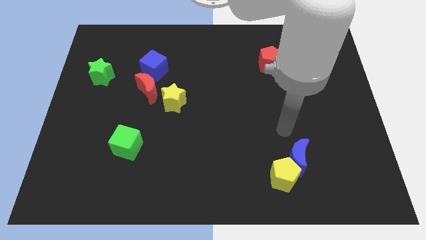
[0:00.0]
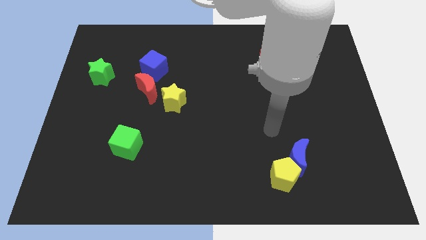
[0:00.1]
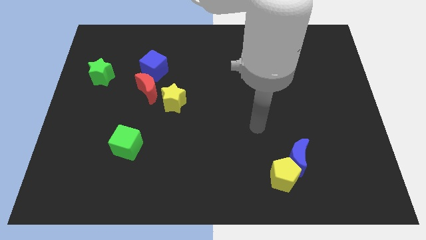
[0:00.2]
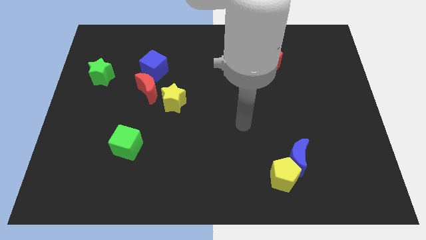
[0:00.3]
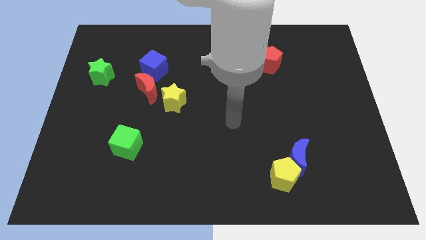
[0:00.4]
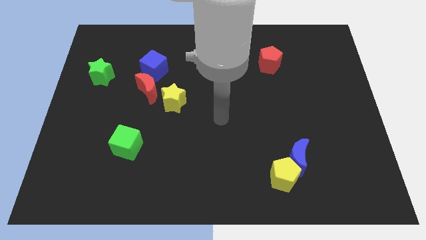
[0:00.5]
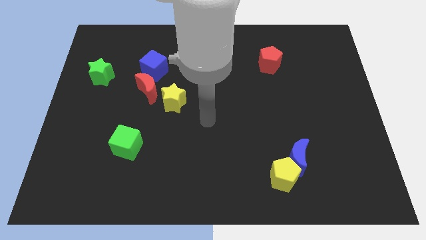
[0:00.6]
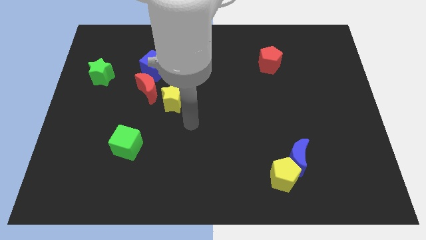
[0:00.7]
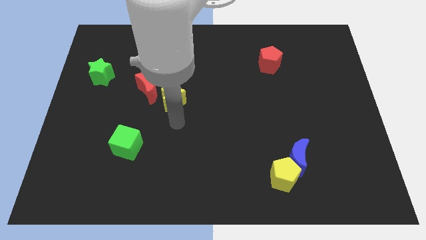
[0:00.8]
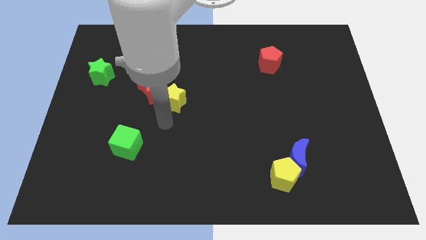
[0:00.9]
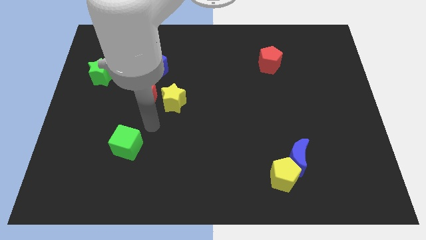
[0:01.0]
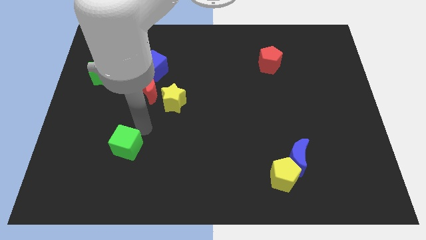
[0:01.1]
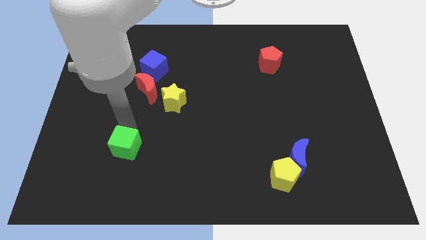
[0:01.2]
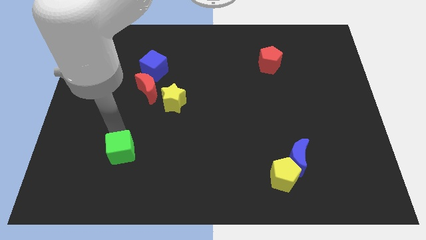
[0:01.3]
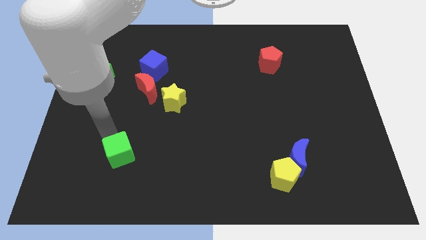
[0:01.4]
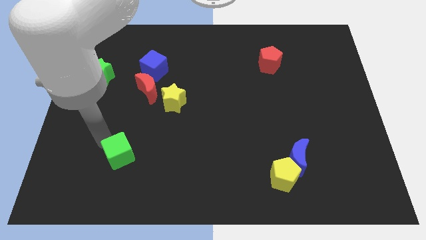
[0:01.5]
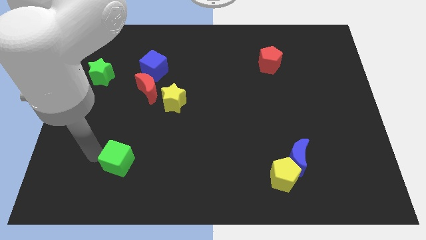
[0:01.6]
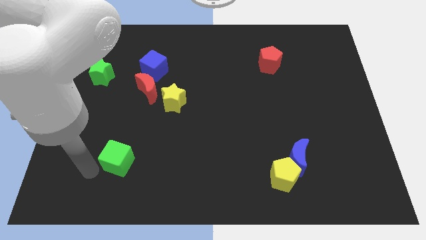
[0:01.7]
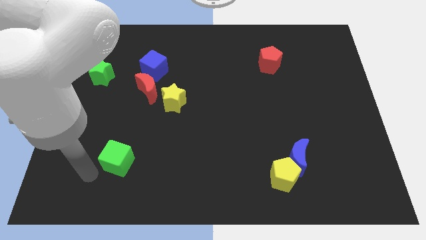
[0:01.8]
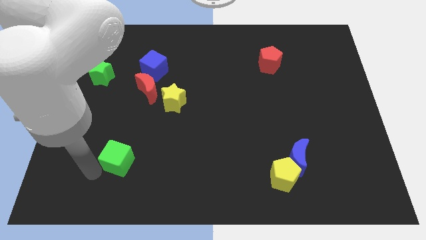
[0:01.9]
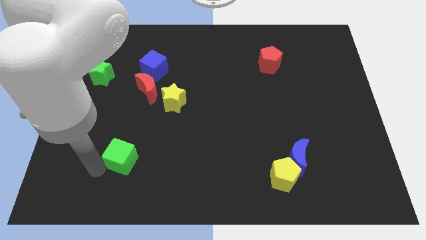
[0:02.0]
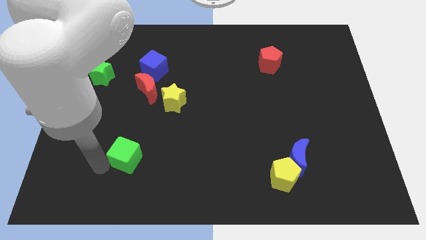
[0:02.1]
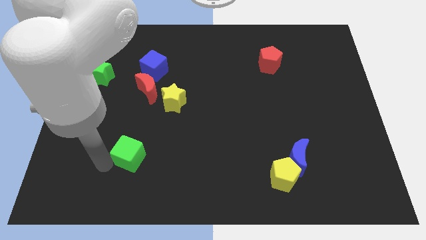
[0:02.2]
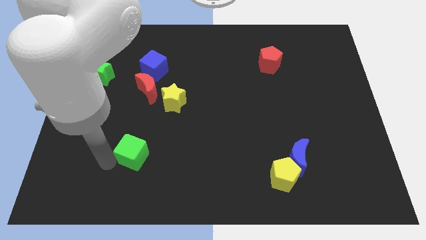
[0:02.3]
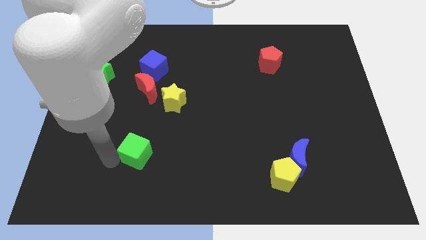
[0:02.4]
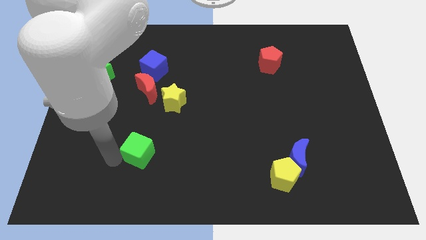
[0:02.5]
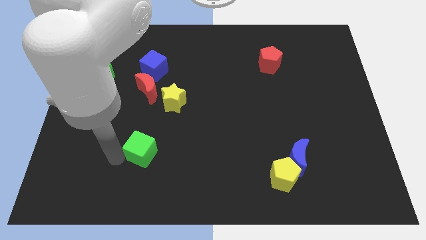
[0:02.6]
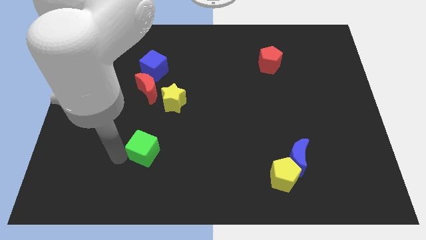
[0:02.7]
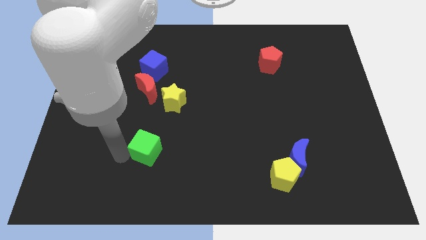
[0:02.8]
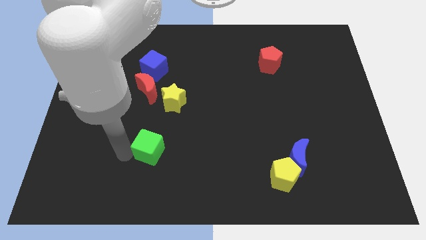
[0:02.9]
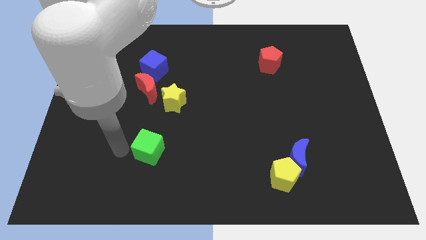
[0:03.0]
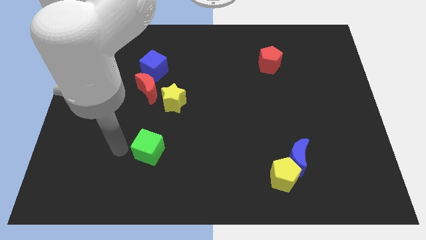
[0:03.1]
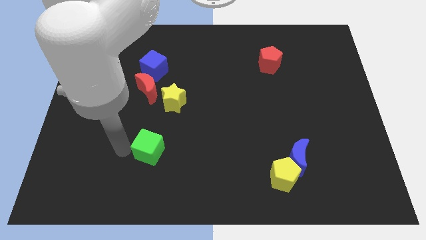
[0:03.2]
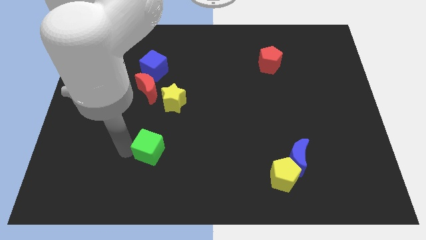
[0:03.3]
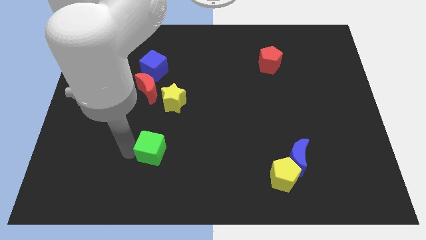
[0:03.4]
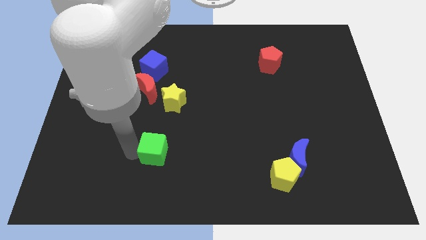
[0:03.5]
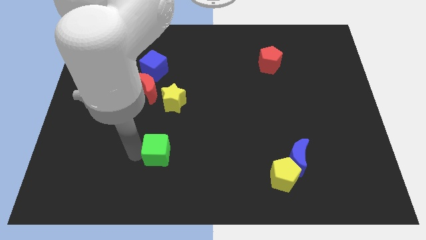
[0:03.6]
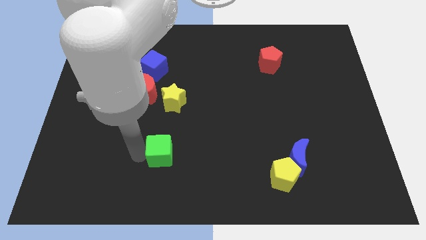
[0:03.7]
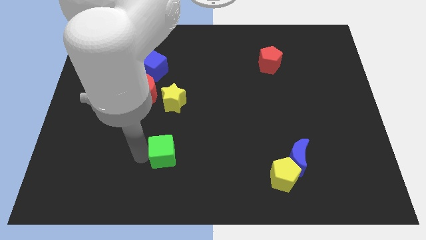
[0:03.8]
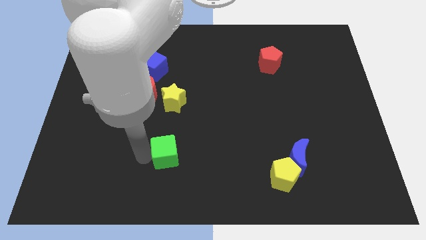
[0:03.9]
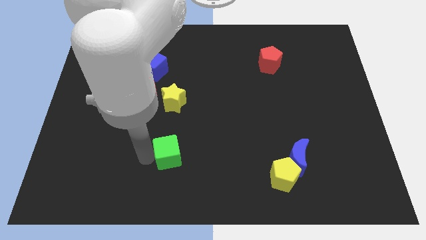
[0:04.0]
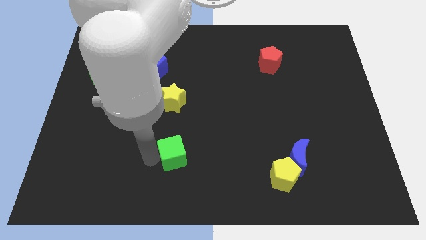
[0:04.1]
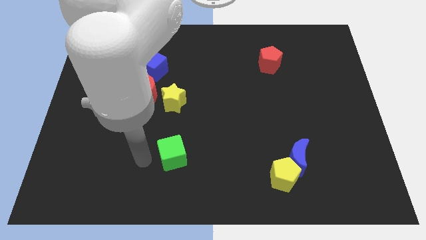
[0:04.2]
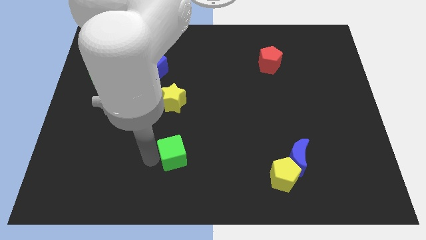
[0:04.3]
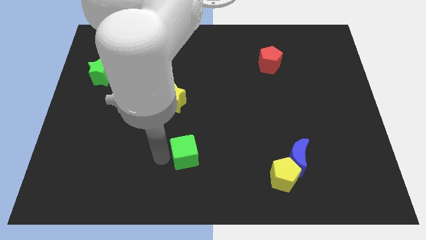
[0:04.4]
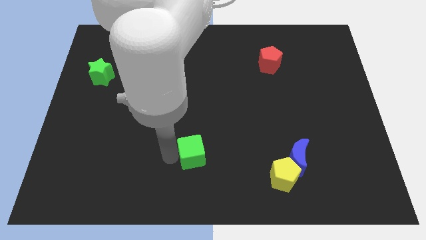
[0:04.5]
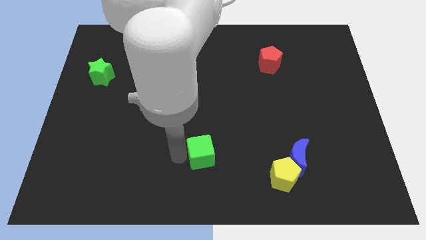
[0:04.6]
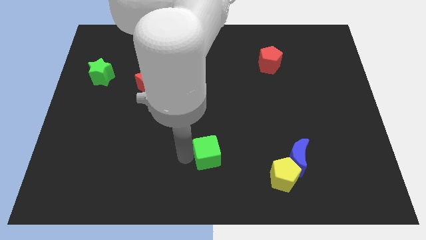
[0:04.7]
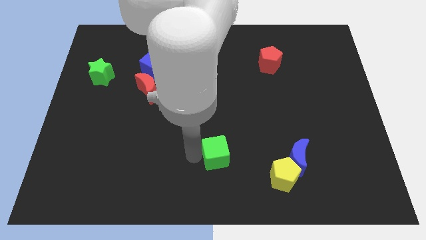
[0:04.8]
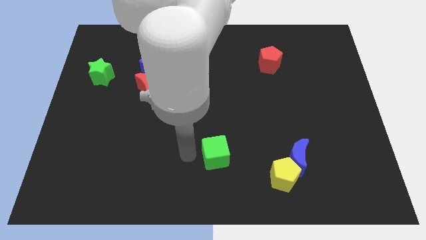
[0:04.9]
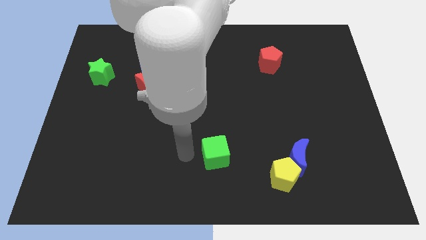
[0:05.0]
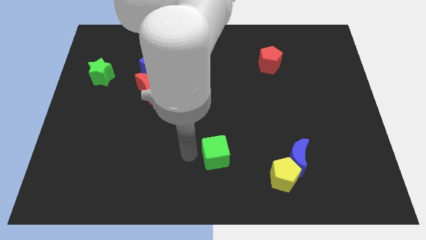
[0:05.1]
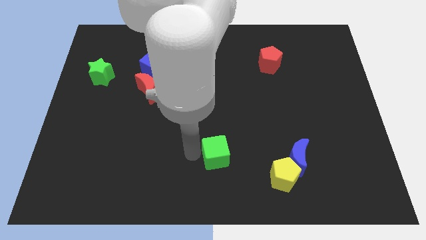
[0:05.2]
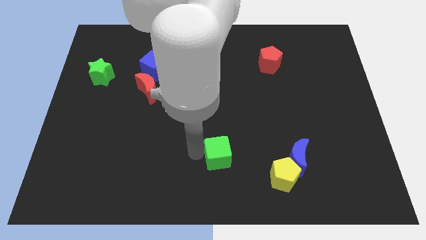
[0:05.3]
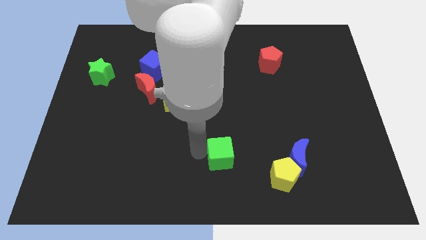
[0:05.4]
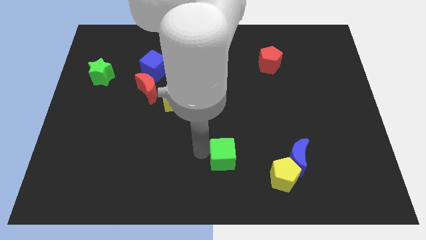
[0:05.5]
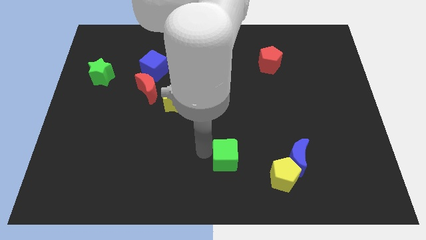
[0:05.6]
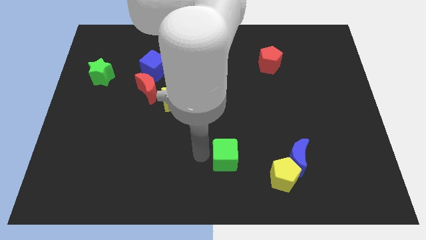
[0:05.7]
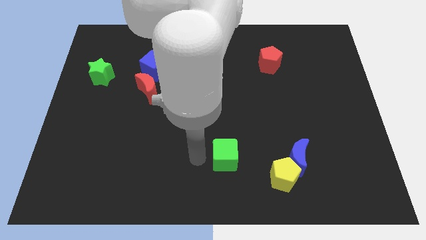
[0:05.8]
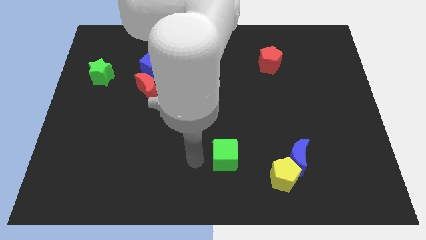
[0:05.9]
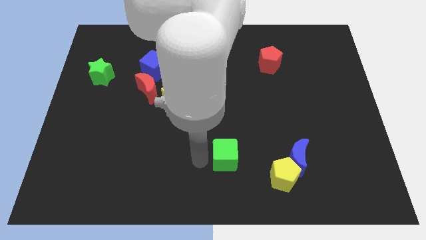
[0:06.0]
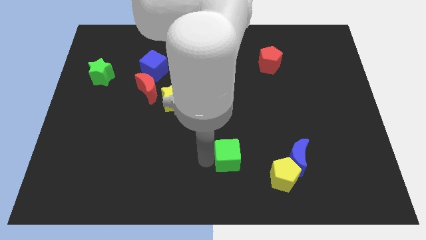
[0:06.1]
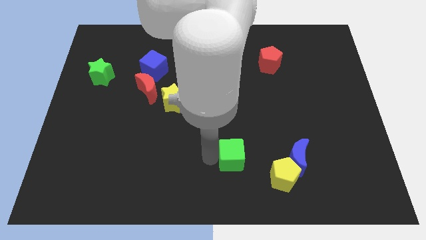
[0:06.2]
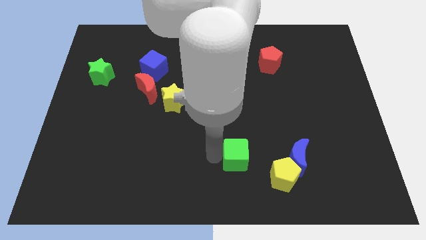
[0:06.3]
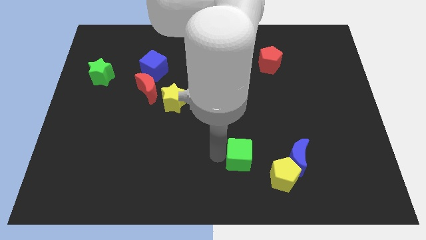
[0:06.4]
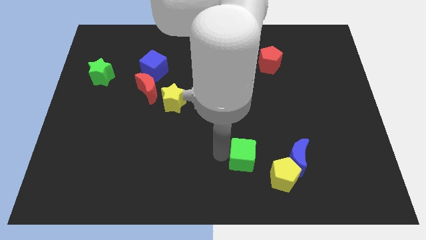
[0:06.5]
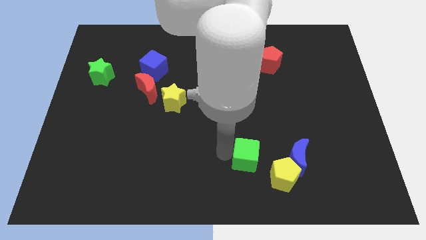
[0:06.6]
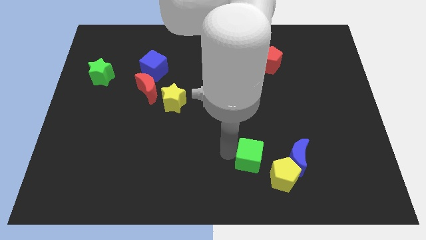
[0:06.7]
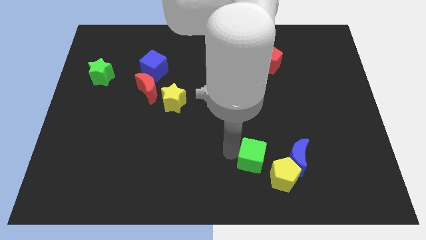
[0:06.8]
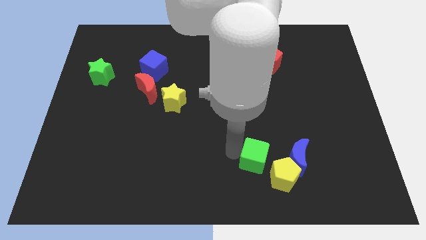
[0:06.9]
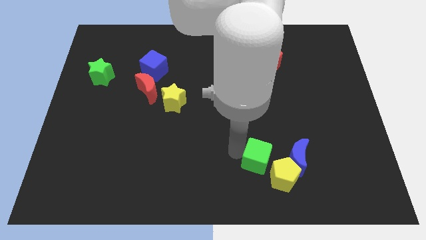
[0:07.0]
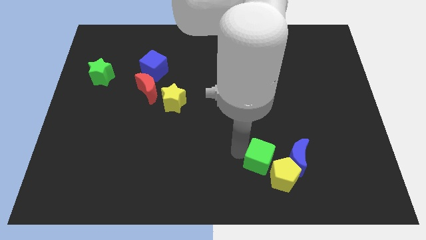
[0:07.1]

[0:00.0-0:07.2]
push the green cube next to the yellow pentagon
